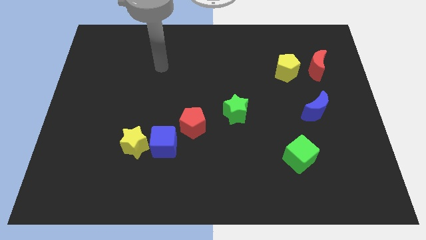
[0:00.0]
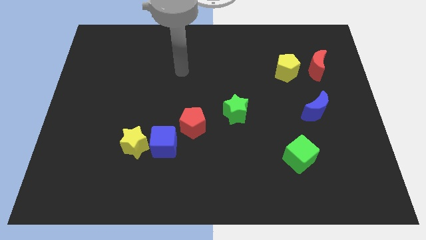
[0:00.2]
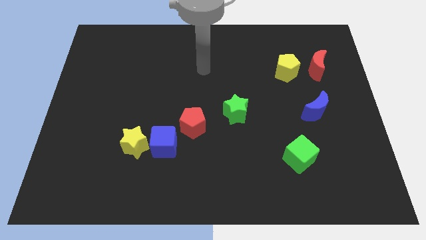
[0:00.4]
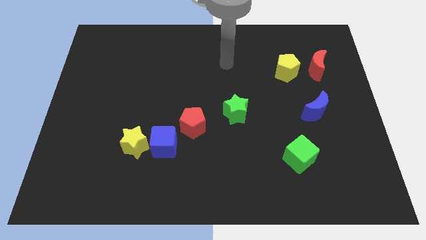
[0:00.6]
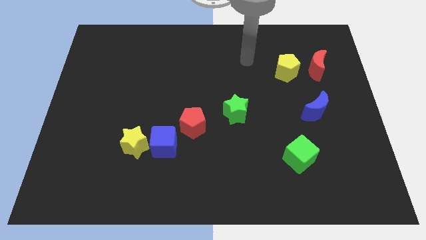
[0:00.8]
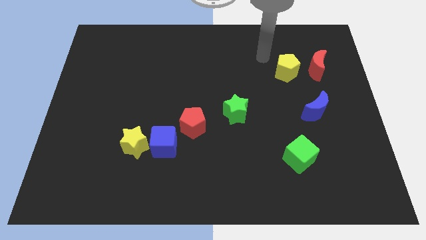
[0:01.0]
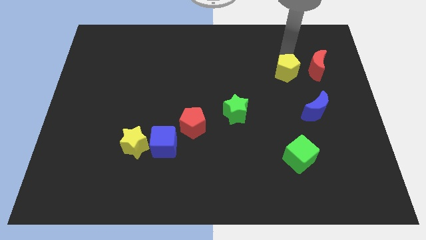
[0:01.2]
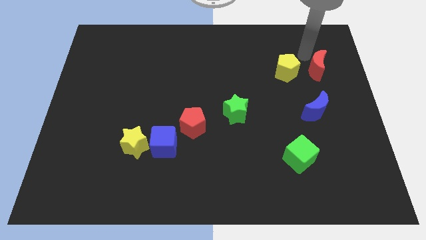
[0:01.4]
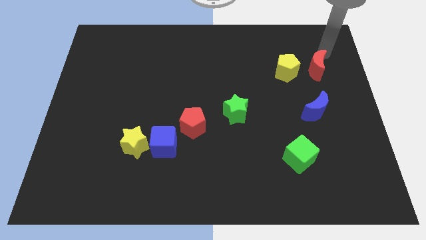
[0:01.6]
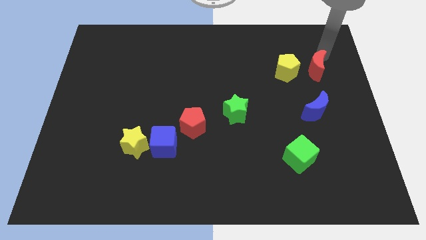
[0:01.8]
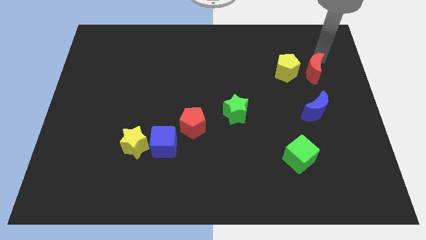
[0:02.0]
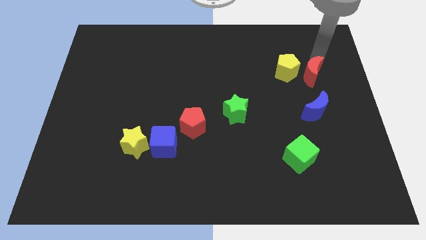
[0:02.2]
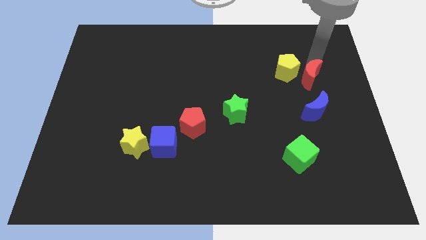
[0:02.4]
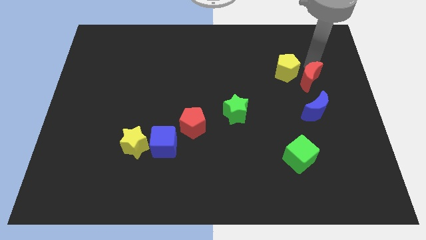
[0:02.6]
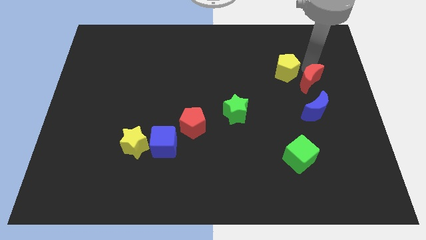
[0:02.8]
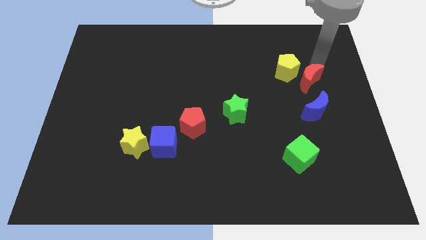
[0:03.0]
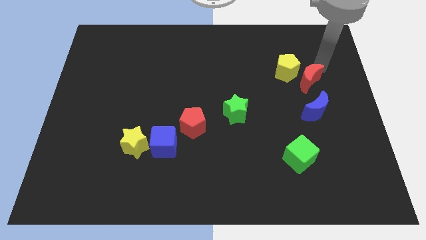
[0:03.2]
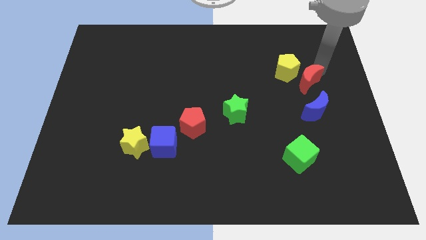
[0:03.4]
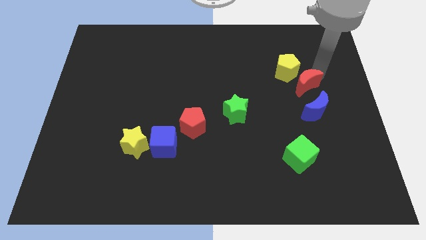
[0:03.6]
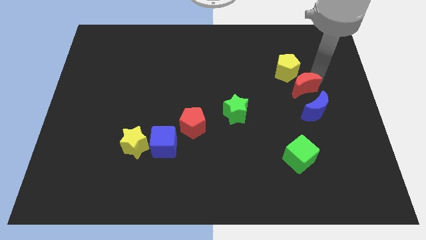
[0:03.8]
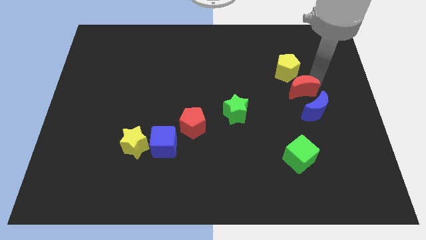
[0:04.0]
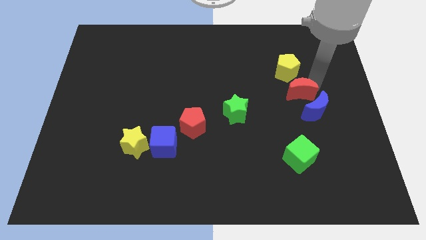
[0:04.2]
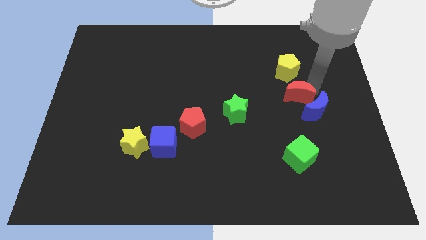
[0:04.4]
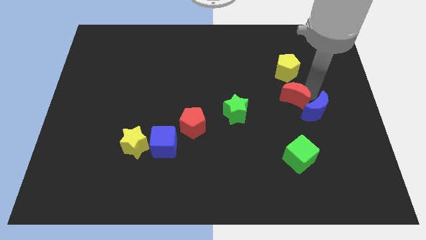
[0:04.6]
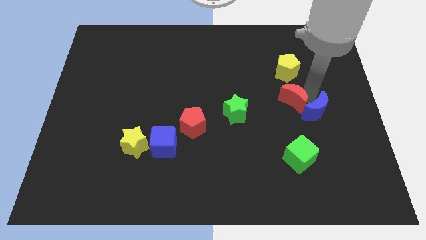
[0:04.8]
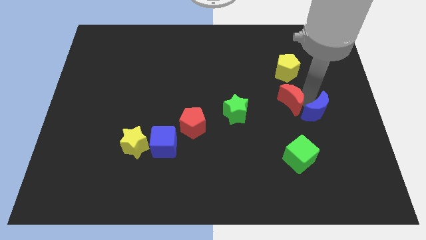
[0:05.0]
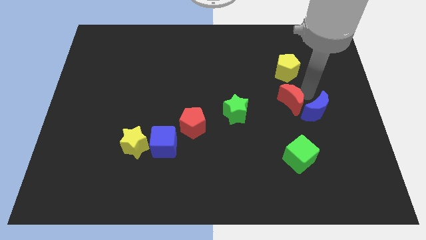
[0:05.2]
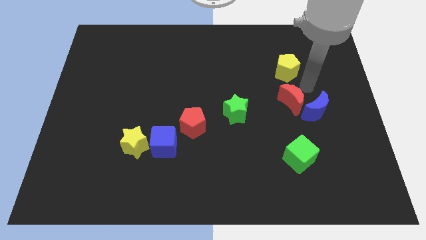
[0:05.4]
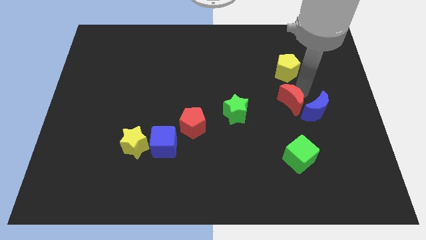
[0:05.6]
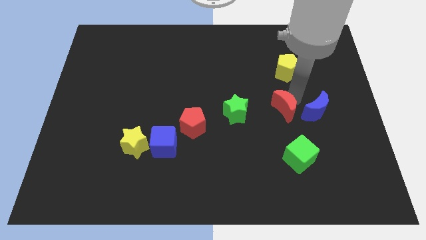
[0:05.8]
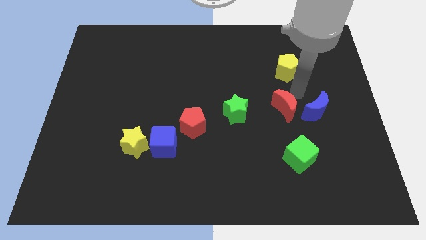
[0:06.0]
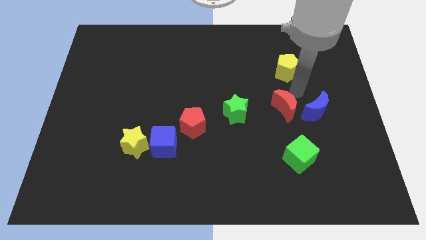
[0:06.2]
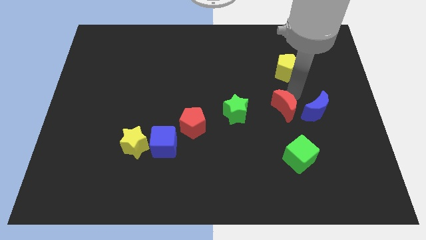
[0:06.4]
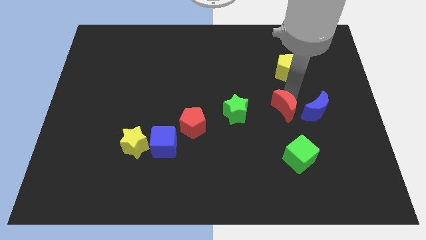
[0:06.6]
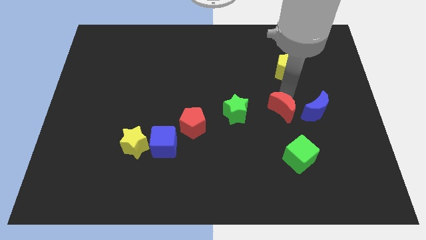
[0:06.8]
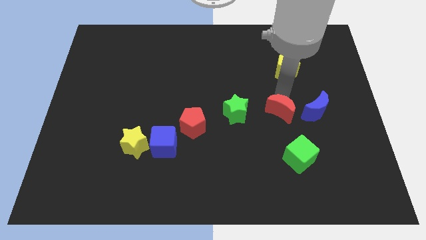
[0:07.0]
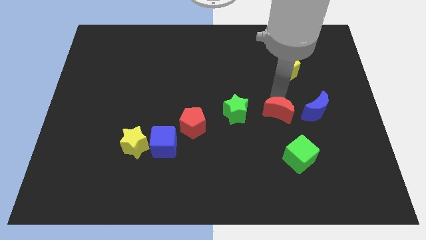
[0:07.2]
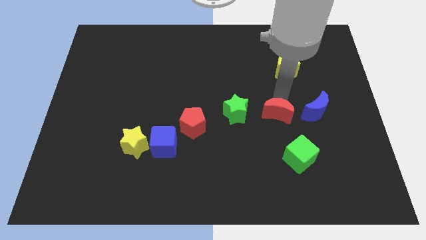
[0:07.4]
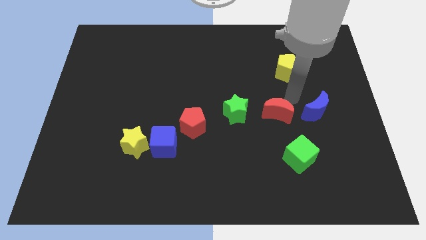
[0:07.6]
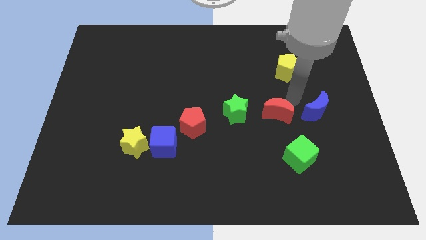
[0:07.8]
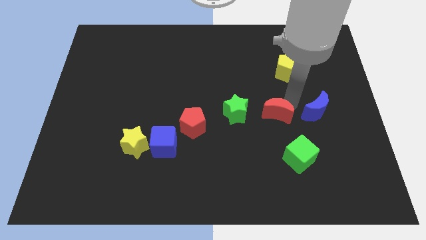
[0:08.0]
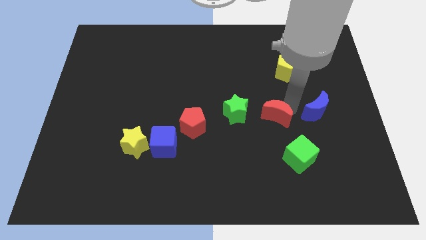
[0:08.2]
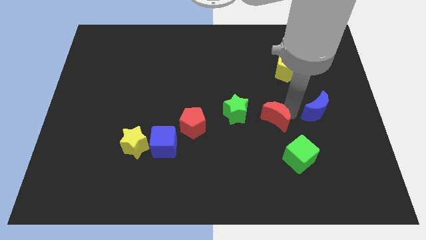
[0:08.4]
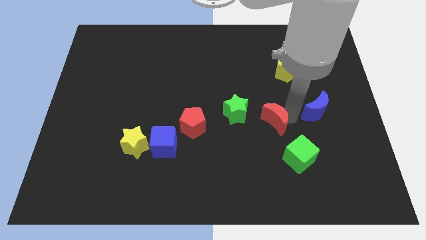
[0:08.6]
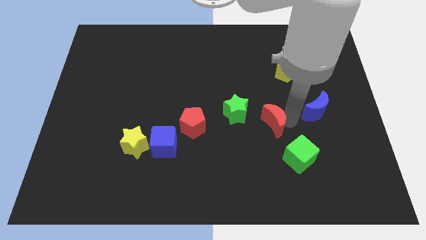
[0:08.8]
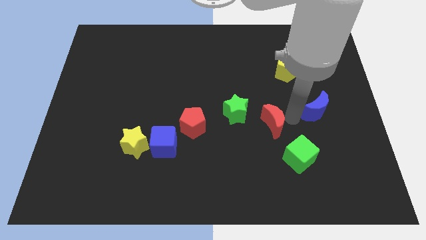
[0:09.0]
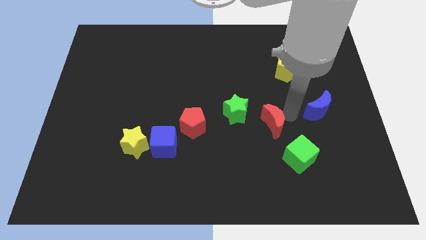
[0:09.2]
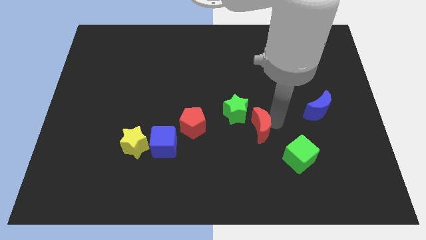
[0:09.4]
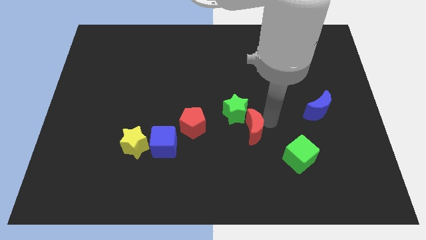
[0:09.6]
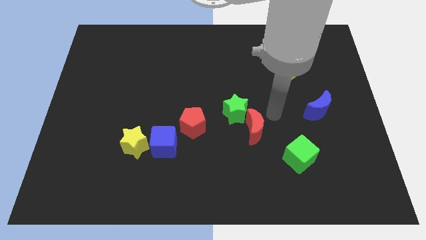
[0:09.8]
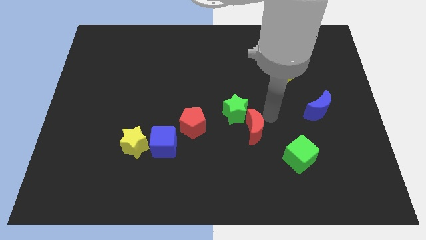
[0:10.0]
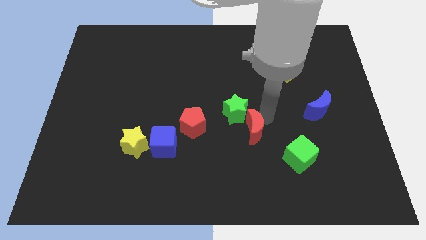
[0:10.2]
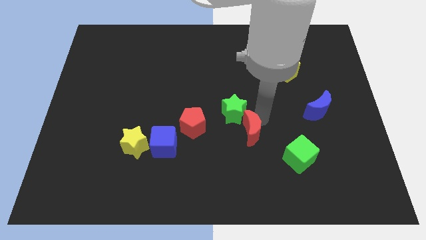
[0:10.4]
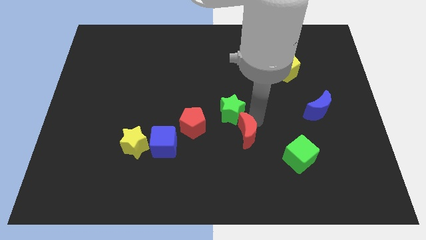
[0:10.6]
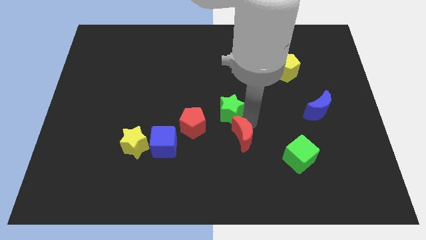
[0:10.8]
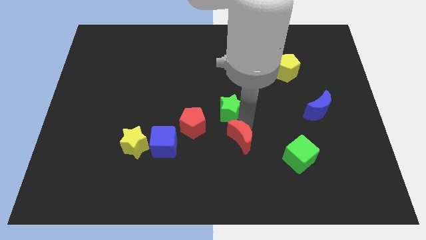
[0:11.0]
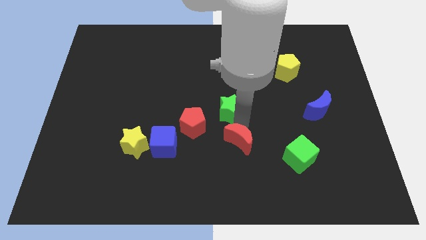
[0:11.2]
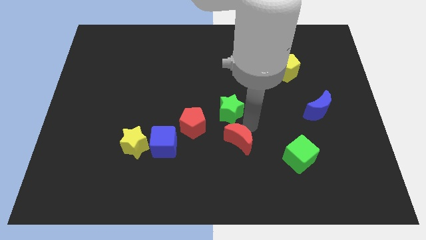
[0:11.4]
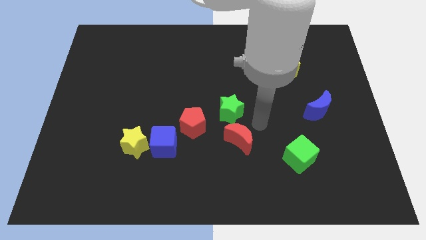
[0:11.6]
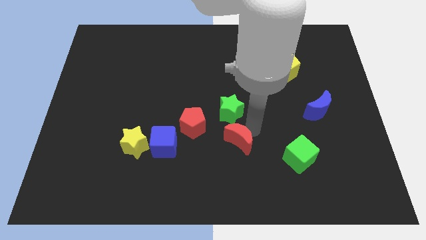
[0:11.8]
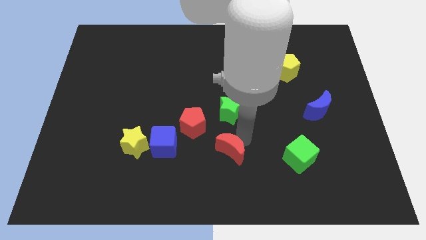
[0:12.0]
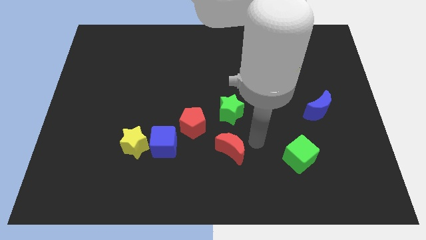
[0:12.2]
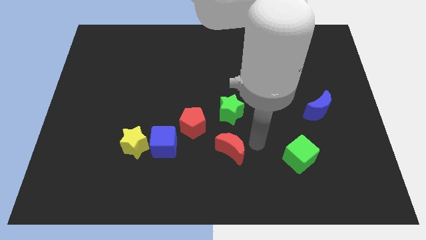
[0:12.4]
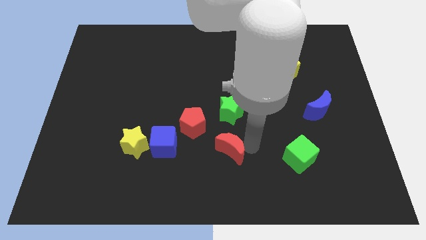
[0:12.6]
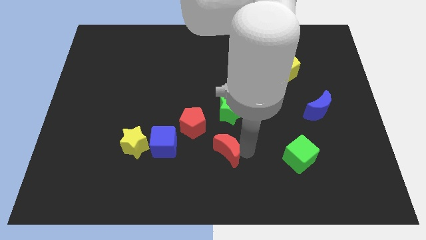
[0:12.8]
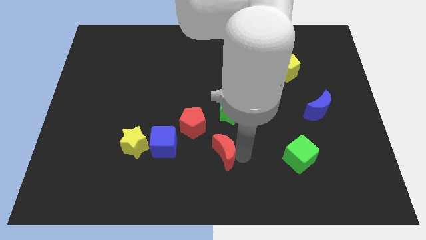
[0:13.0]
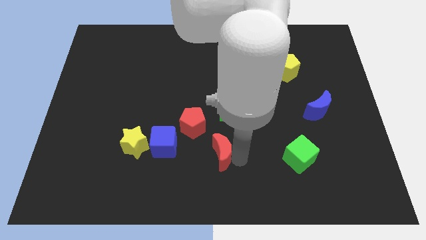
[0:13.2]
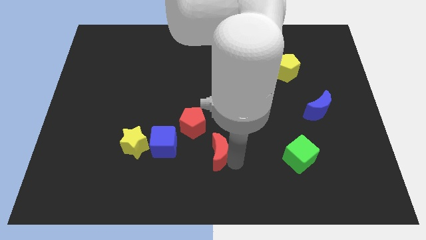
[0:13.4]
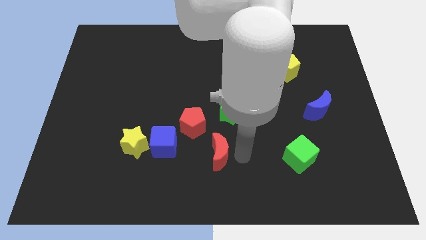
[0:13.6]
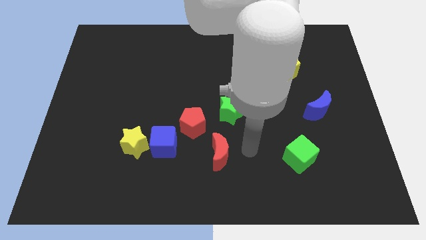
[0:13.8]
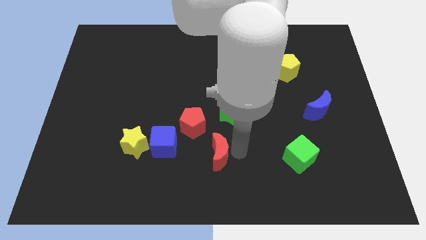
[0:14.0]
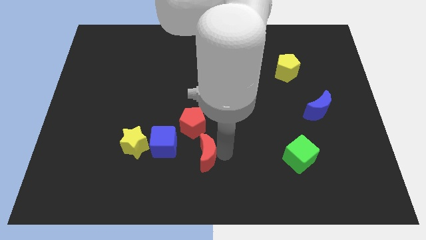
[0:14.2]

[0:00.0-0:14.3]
move the red moon to the bottom right side of the blue cube

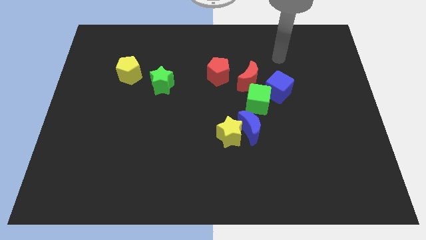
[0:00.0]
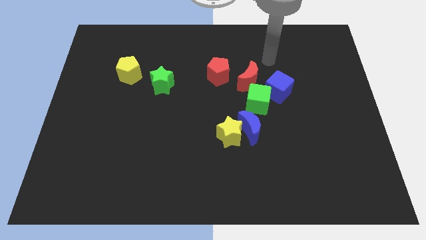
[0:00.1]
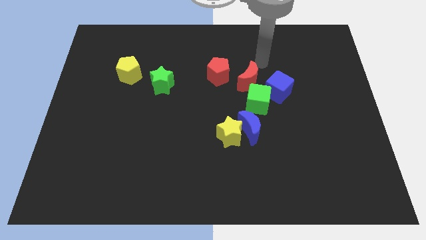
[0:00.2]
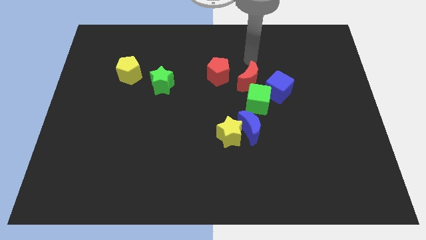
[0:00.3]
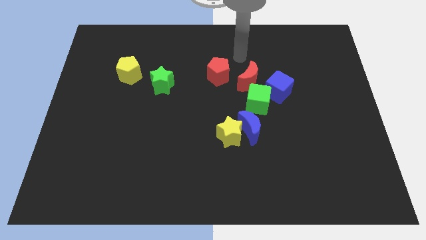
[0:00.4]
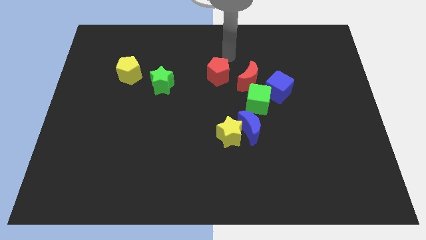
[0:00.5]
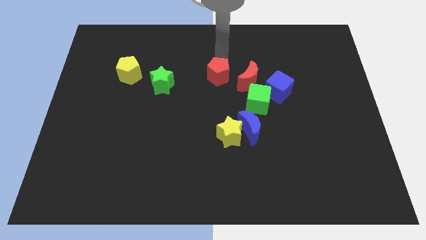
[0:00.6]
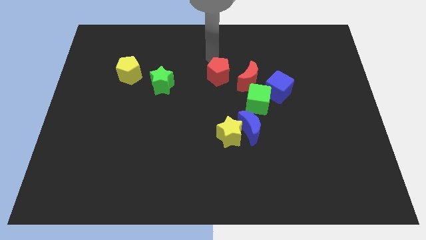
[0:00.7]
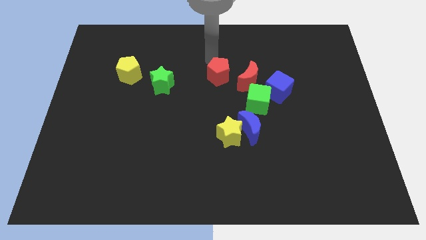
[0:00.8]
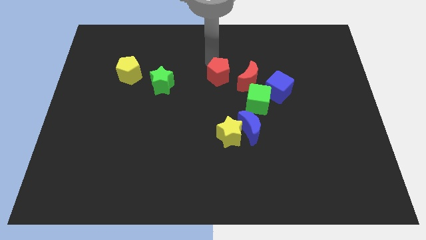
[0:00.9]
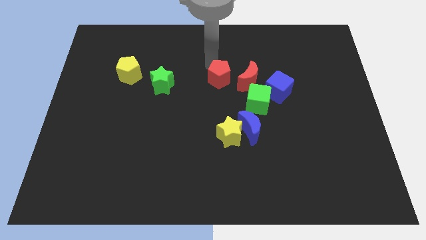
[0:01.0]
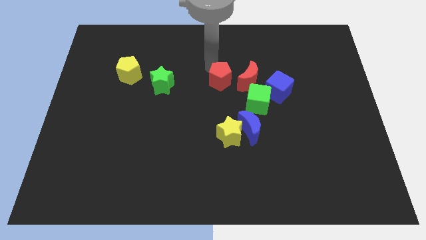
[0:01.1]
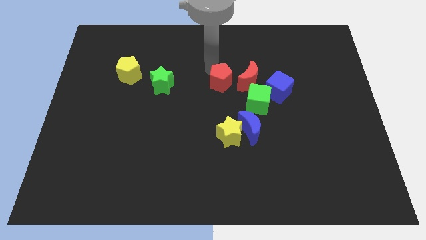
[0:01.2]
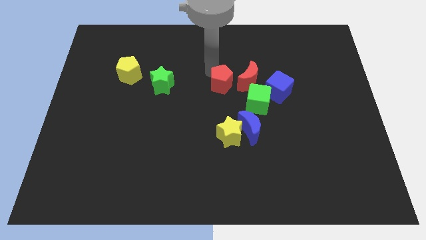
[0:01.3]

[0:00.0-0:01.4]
put the red pentagon to the top side of the yellow star
